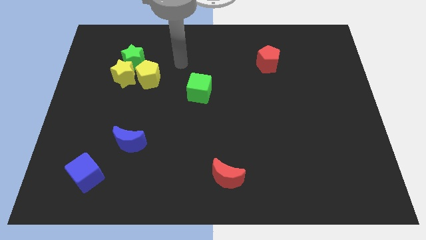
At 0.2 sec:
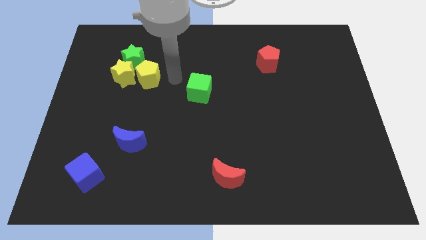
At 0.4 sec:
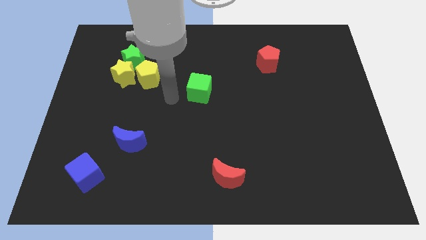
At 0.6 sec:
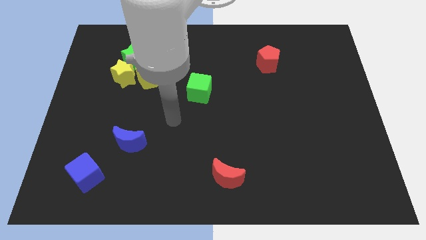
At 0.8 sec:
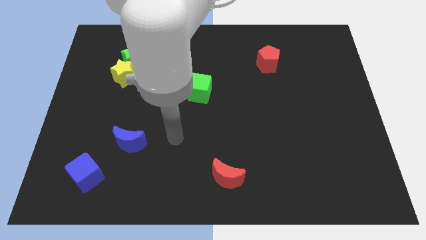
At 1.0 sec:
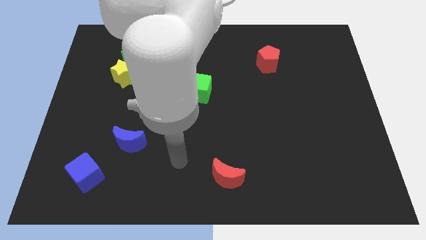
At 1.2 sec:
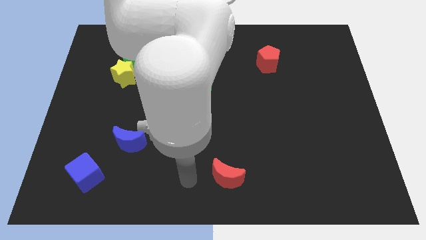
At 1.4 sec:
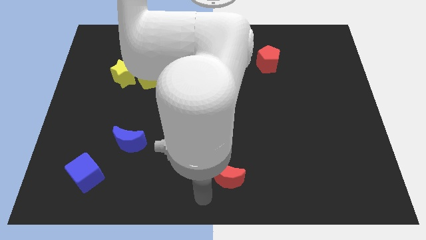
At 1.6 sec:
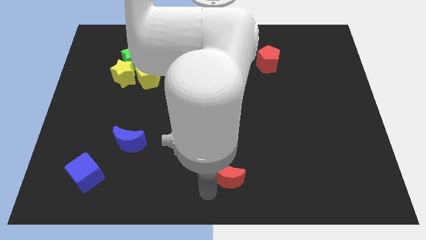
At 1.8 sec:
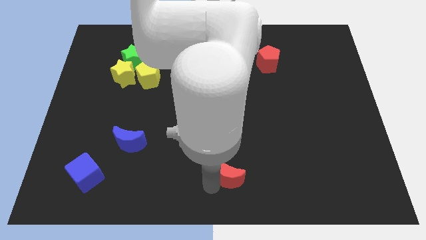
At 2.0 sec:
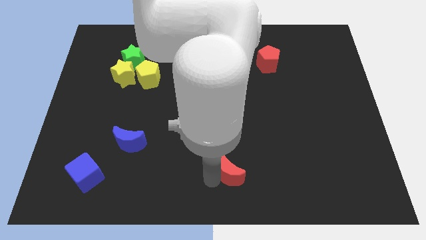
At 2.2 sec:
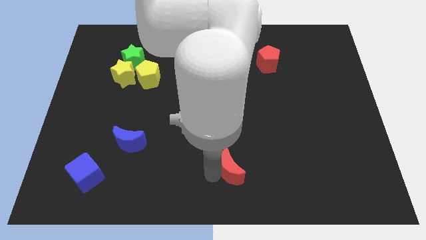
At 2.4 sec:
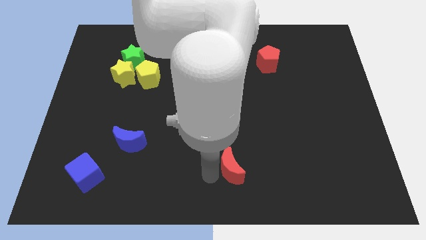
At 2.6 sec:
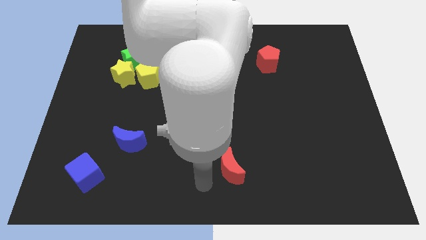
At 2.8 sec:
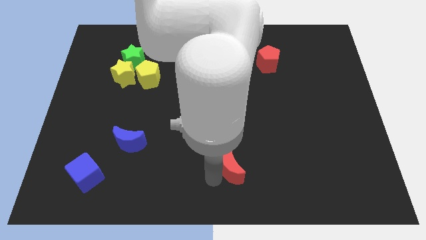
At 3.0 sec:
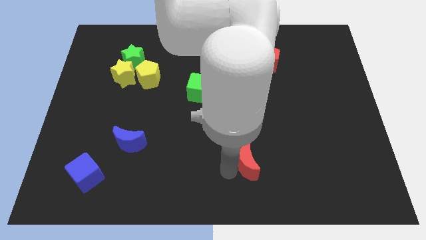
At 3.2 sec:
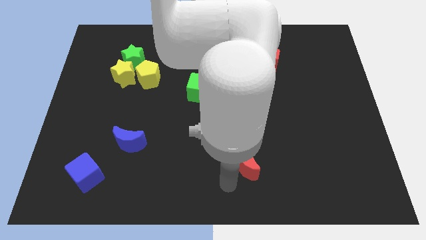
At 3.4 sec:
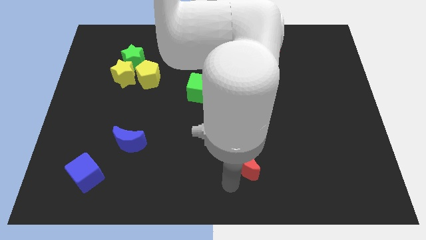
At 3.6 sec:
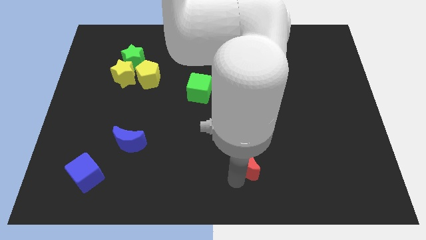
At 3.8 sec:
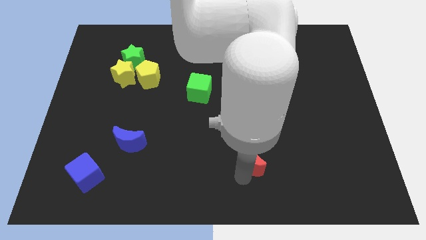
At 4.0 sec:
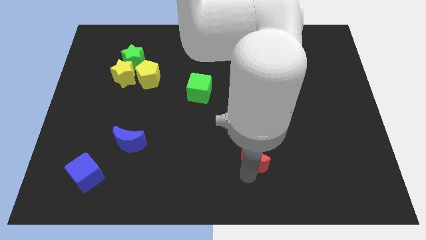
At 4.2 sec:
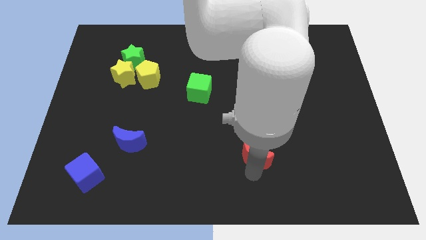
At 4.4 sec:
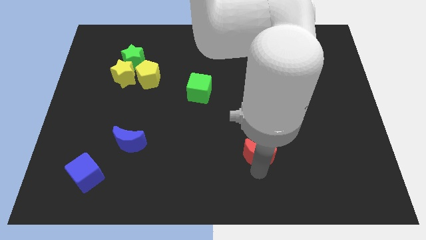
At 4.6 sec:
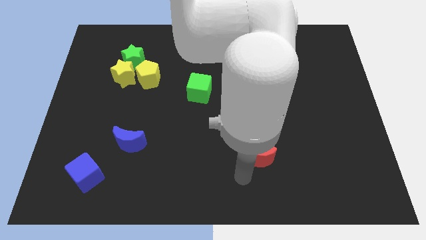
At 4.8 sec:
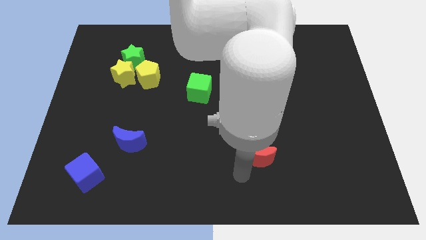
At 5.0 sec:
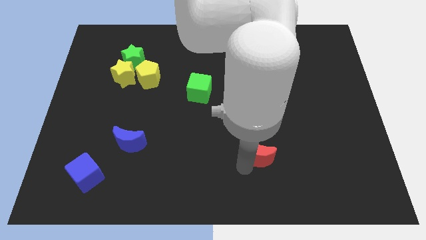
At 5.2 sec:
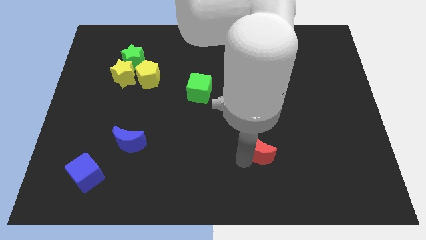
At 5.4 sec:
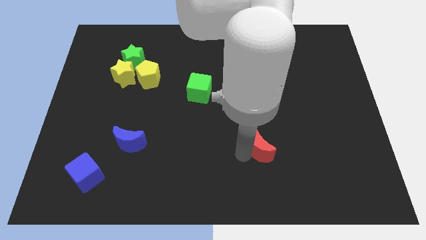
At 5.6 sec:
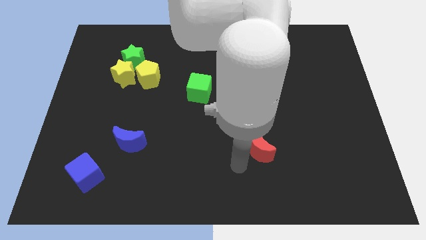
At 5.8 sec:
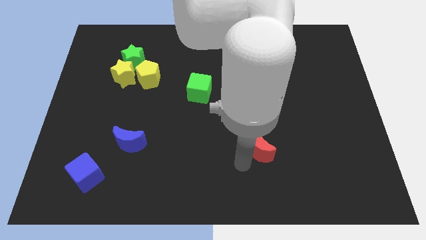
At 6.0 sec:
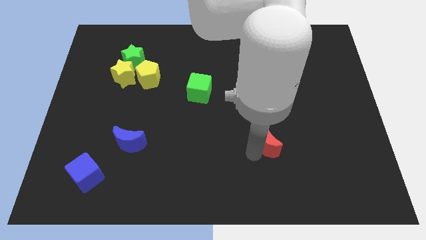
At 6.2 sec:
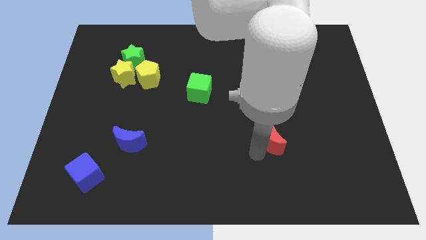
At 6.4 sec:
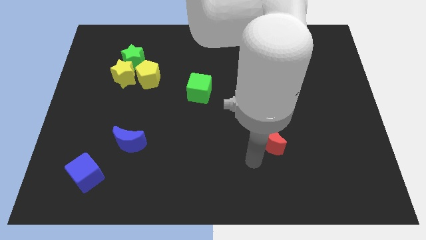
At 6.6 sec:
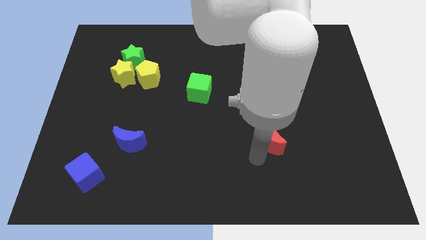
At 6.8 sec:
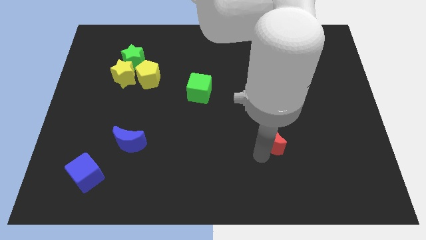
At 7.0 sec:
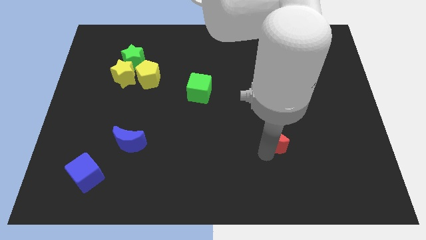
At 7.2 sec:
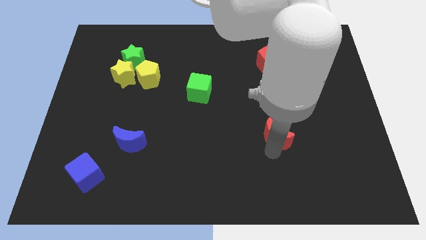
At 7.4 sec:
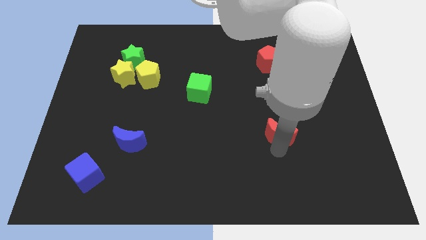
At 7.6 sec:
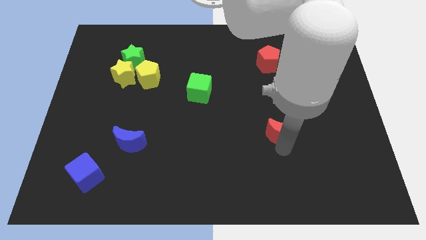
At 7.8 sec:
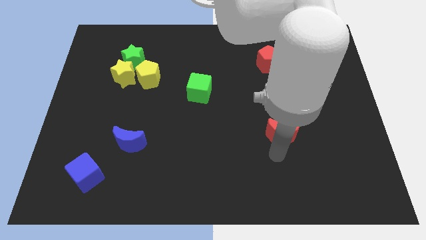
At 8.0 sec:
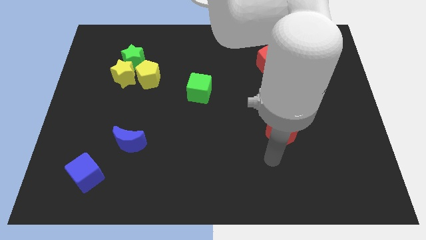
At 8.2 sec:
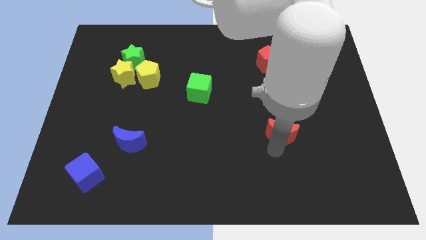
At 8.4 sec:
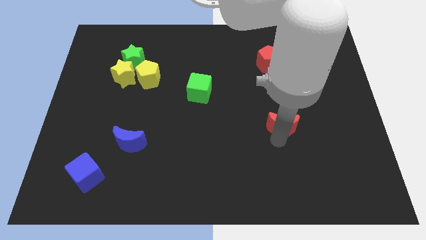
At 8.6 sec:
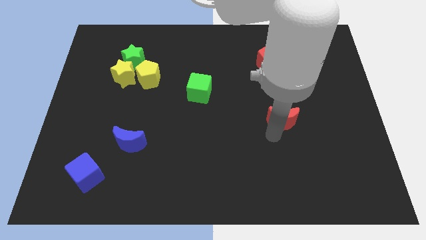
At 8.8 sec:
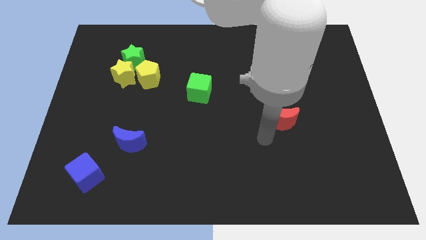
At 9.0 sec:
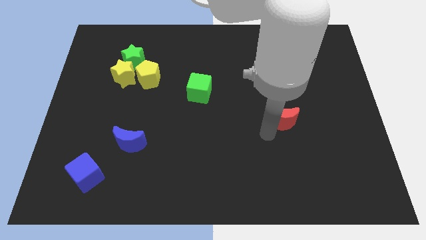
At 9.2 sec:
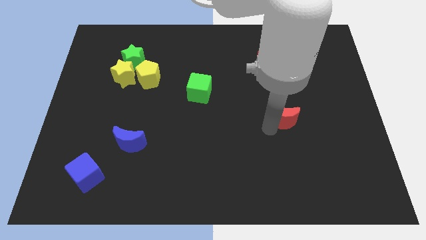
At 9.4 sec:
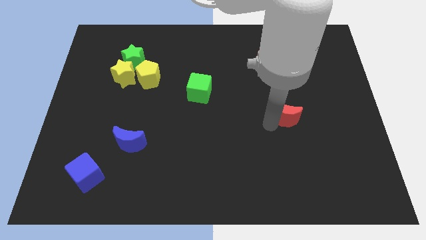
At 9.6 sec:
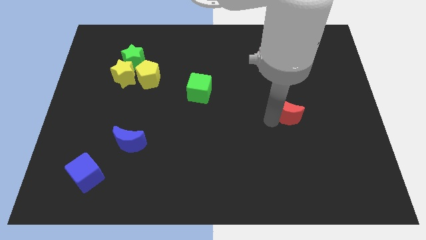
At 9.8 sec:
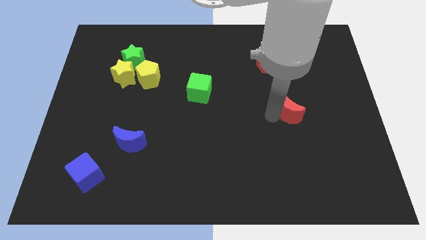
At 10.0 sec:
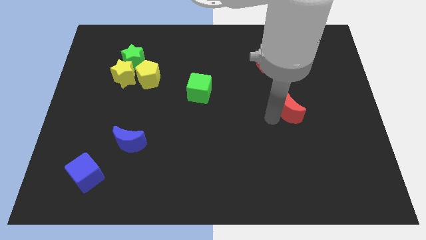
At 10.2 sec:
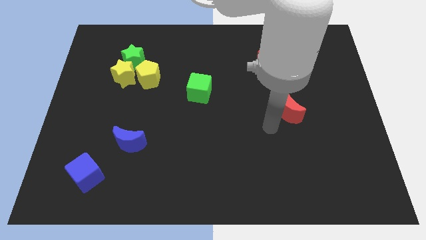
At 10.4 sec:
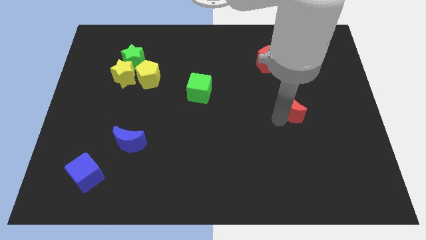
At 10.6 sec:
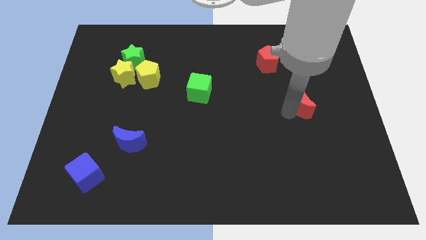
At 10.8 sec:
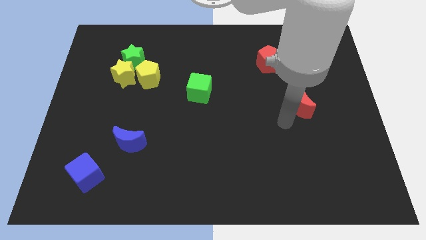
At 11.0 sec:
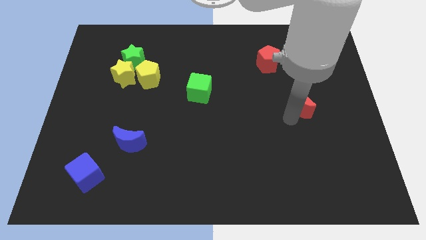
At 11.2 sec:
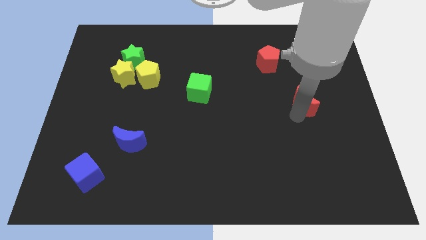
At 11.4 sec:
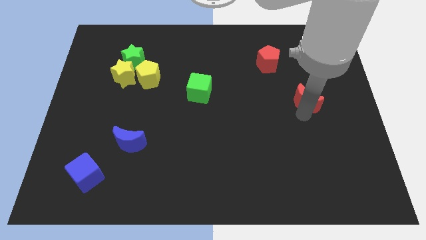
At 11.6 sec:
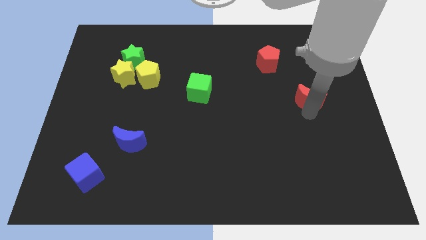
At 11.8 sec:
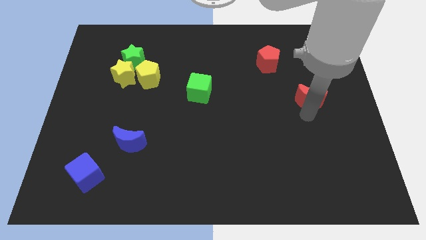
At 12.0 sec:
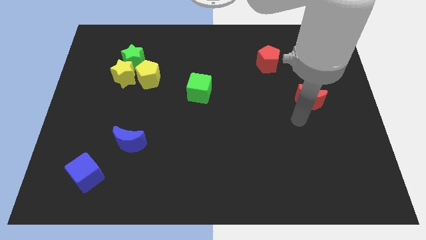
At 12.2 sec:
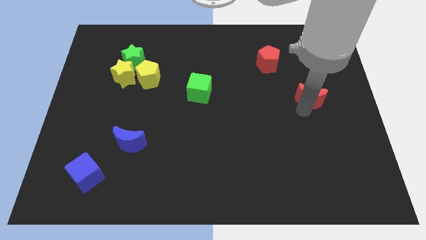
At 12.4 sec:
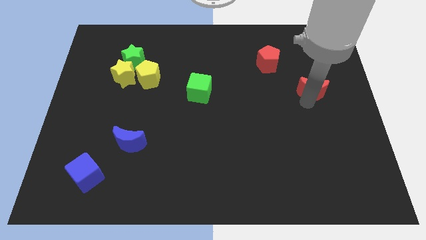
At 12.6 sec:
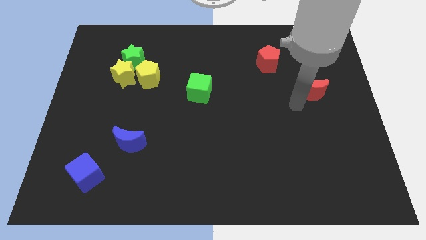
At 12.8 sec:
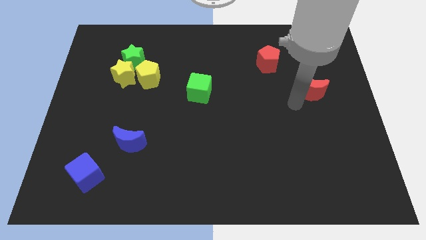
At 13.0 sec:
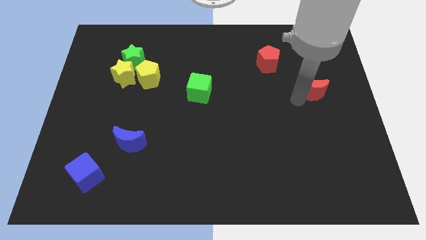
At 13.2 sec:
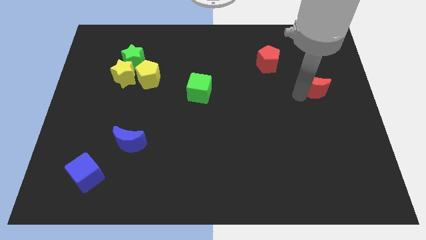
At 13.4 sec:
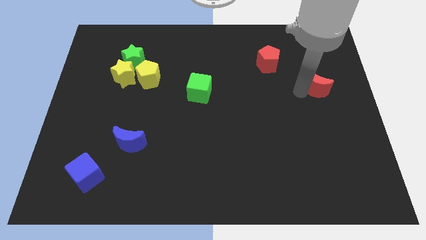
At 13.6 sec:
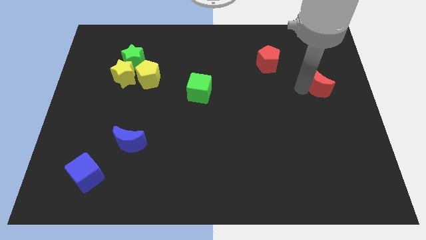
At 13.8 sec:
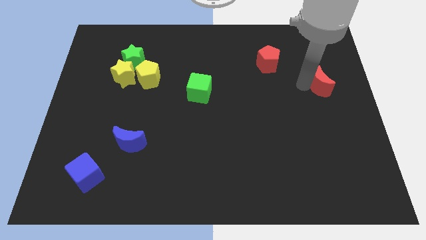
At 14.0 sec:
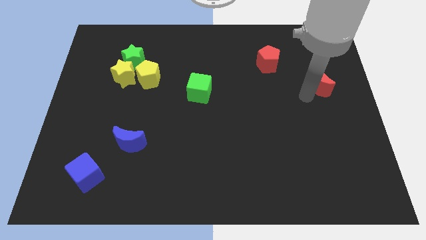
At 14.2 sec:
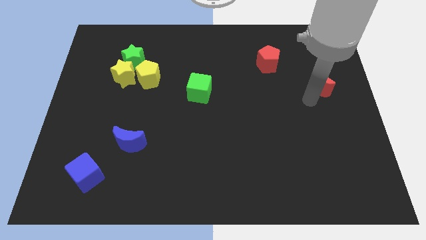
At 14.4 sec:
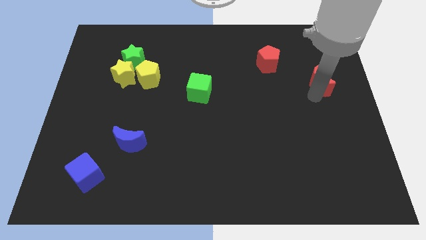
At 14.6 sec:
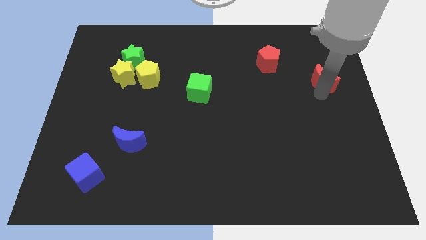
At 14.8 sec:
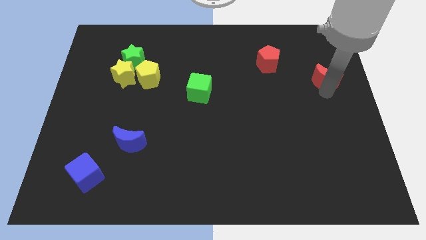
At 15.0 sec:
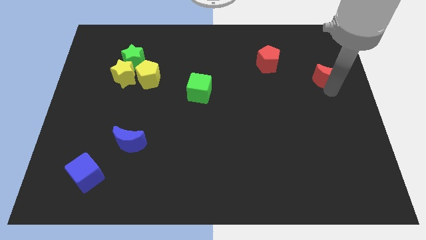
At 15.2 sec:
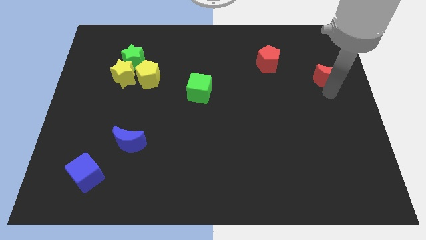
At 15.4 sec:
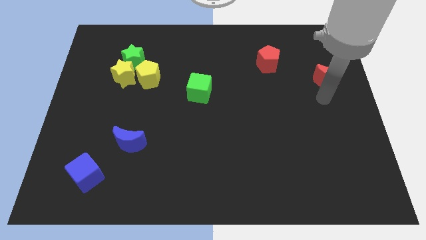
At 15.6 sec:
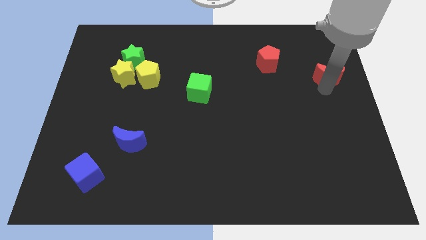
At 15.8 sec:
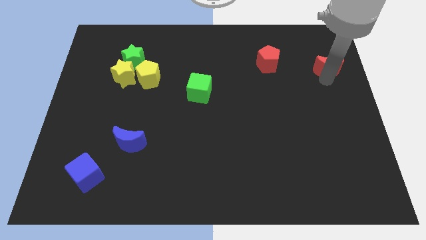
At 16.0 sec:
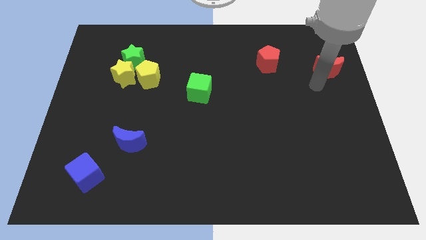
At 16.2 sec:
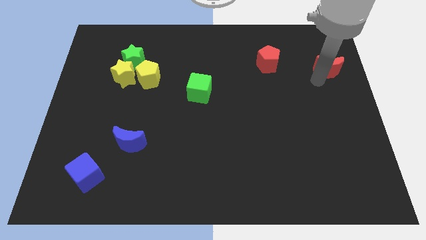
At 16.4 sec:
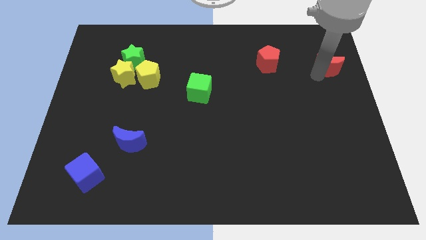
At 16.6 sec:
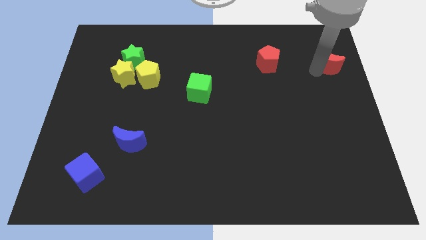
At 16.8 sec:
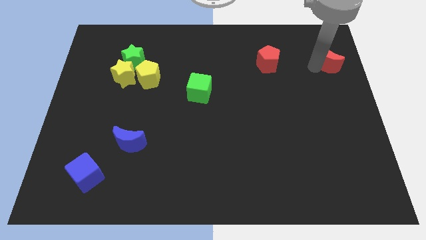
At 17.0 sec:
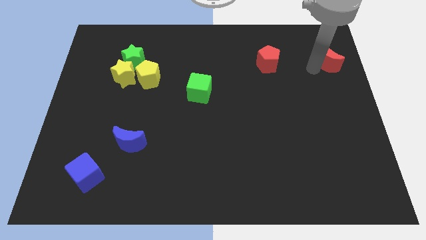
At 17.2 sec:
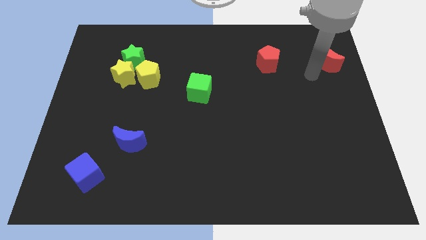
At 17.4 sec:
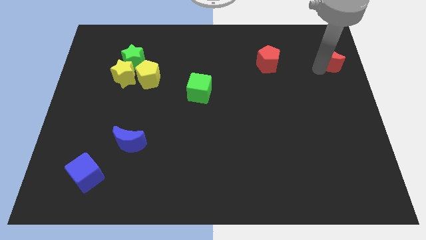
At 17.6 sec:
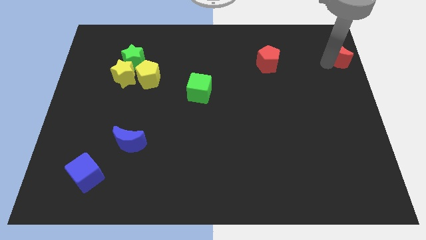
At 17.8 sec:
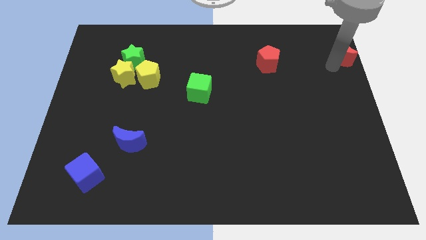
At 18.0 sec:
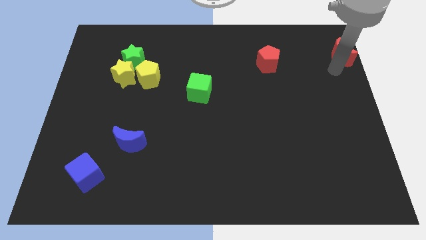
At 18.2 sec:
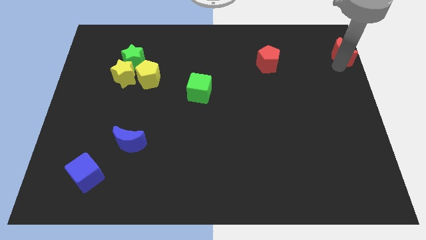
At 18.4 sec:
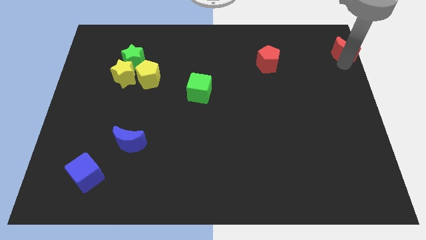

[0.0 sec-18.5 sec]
slide the red moon to the top right
